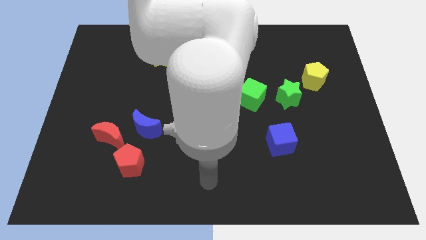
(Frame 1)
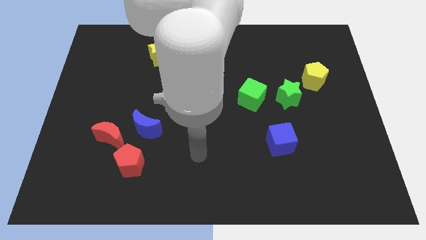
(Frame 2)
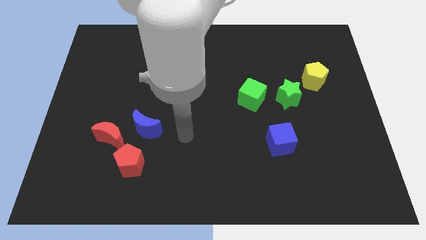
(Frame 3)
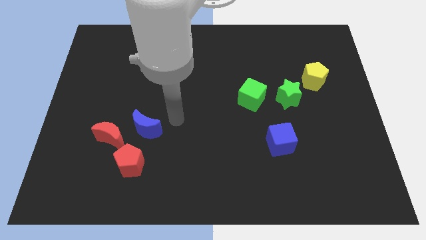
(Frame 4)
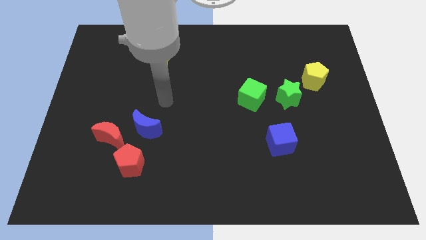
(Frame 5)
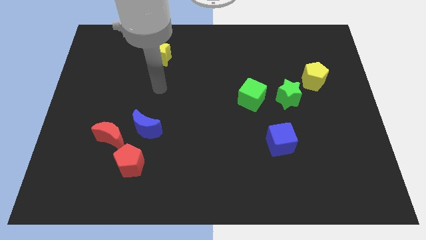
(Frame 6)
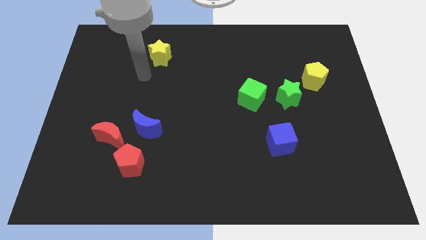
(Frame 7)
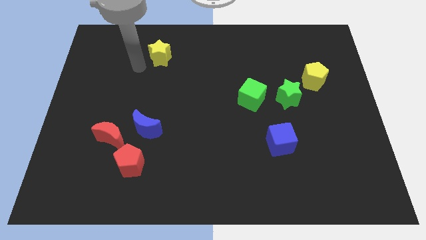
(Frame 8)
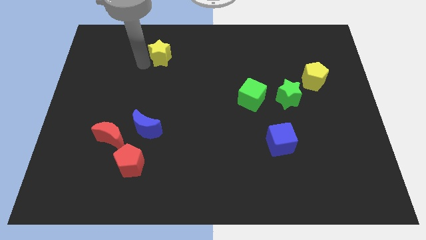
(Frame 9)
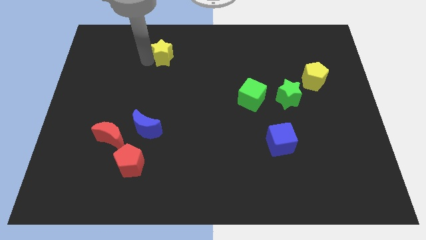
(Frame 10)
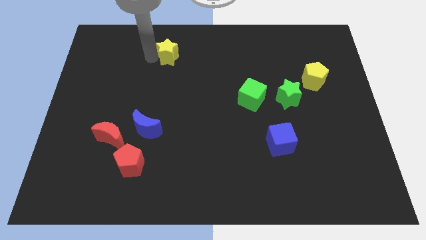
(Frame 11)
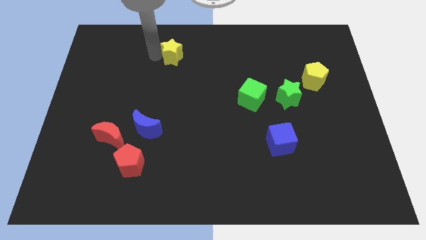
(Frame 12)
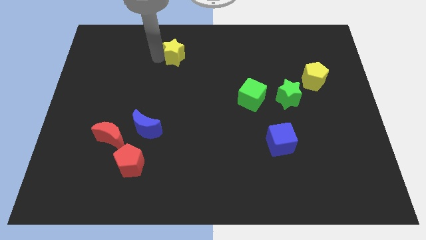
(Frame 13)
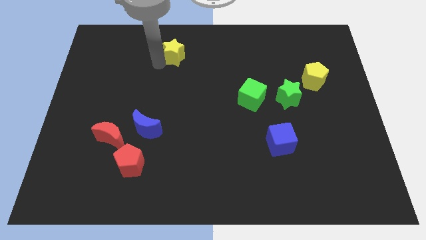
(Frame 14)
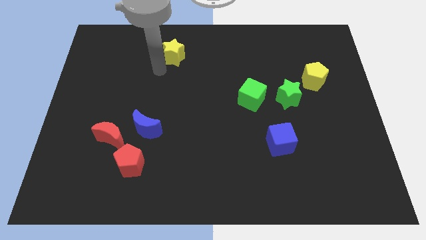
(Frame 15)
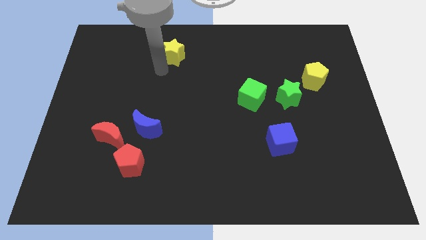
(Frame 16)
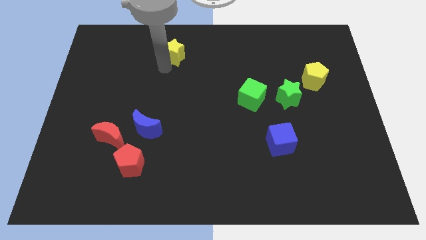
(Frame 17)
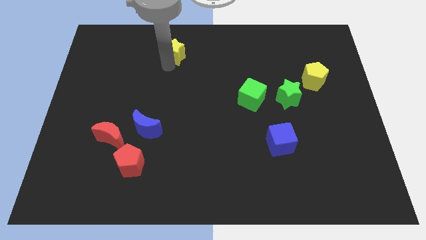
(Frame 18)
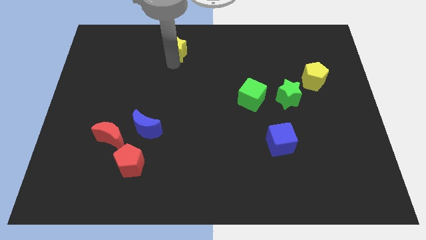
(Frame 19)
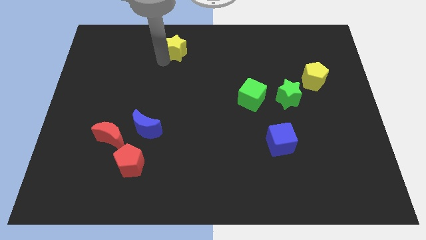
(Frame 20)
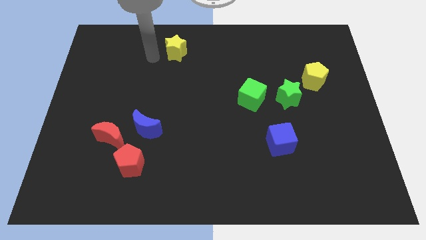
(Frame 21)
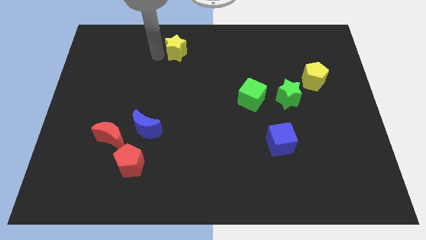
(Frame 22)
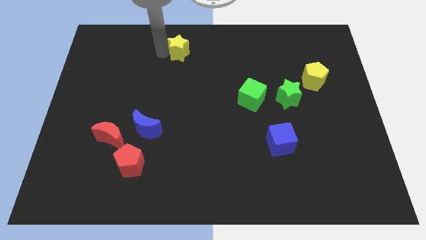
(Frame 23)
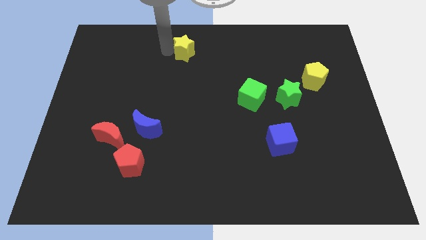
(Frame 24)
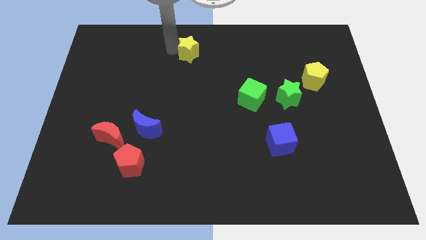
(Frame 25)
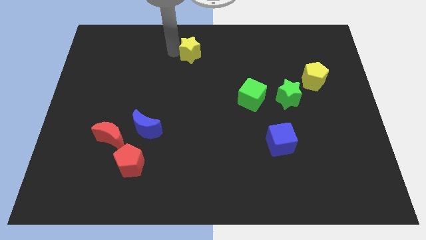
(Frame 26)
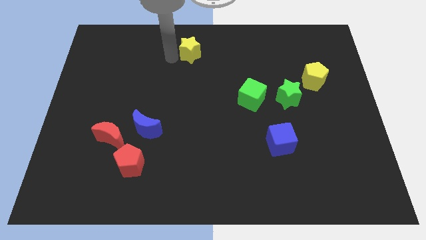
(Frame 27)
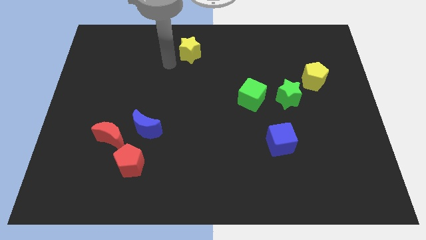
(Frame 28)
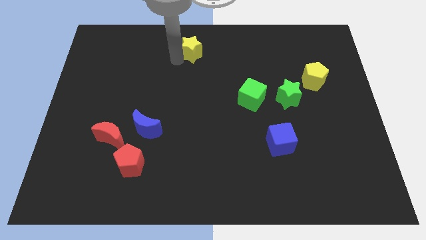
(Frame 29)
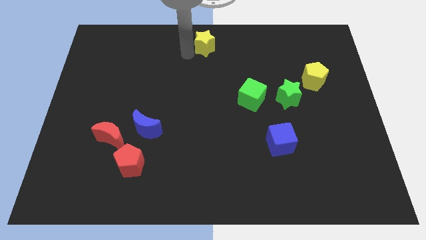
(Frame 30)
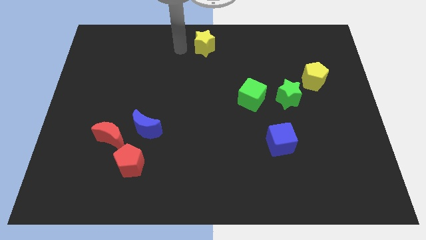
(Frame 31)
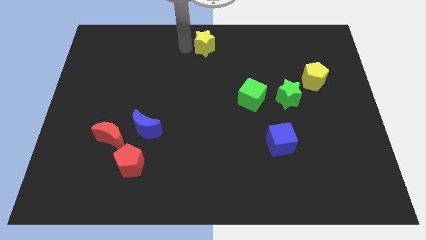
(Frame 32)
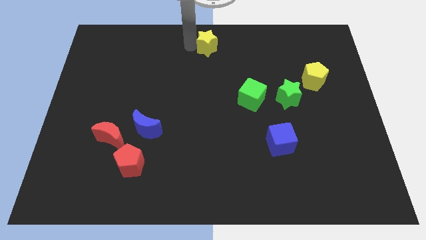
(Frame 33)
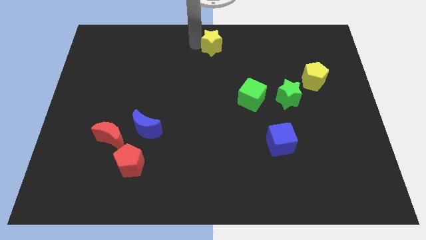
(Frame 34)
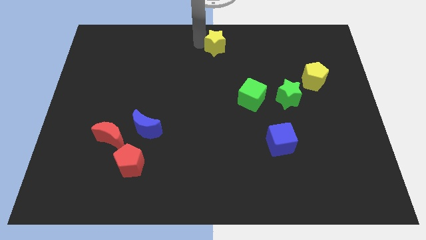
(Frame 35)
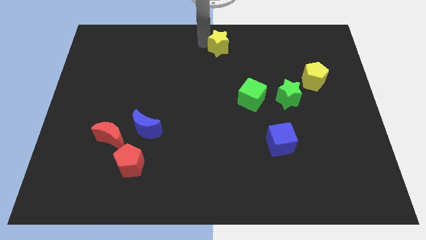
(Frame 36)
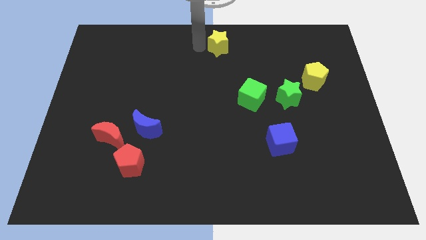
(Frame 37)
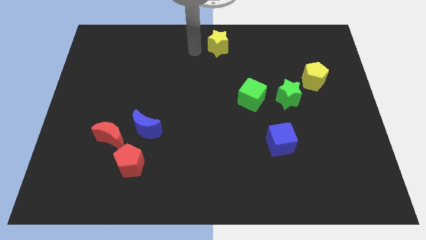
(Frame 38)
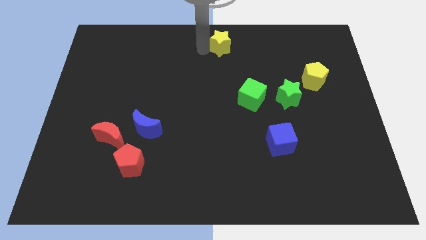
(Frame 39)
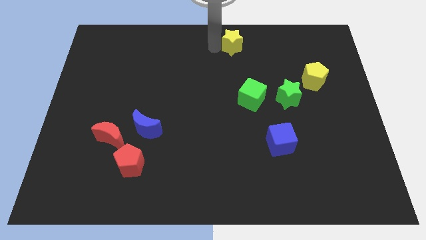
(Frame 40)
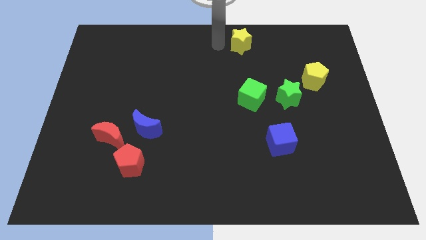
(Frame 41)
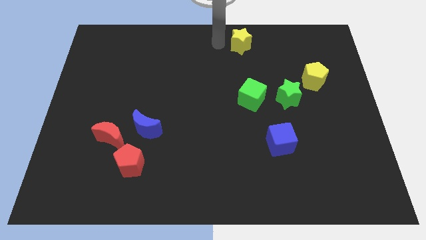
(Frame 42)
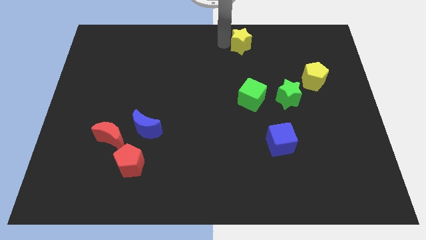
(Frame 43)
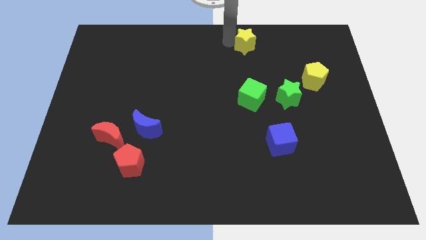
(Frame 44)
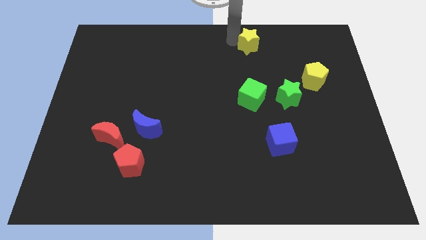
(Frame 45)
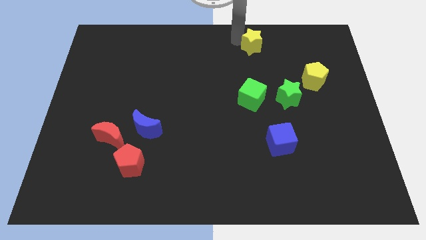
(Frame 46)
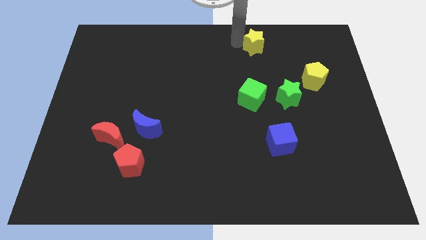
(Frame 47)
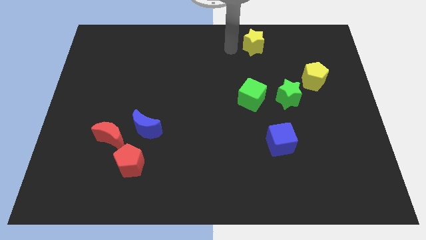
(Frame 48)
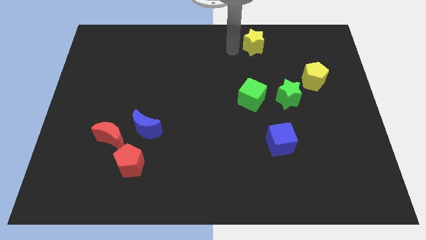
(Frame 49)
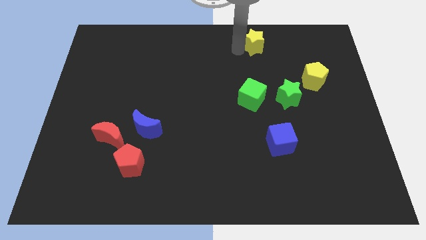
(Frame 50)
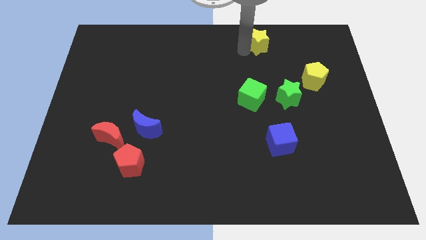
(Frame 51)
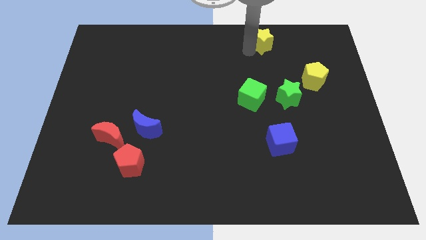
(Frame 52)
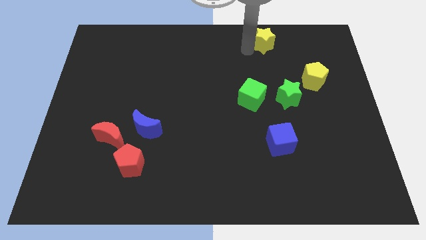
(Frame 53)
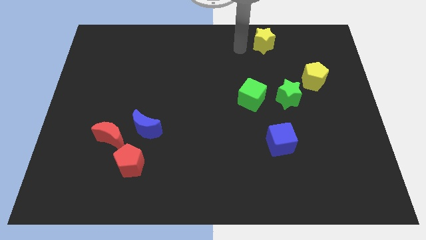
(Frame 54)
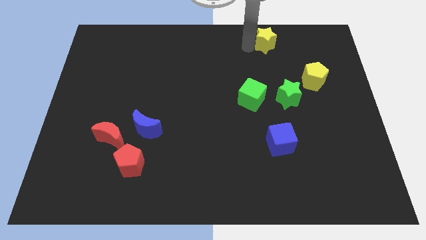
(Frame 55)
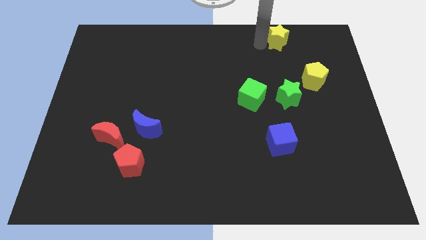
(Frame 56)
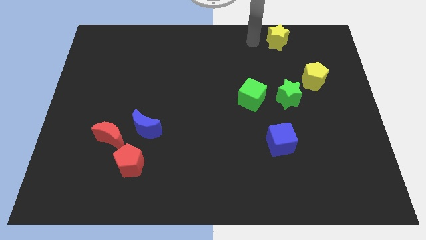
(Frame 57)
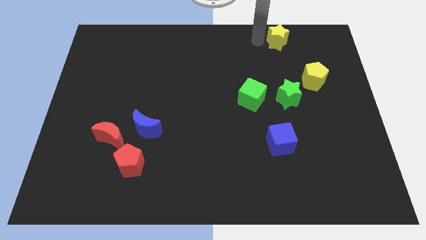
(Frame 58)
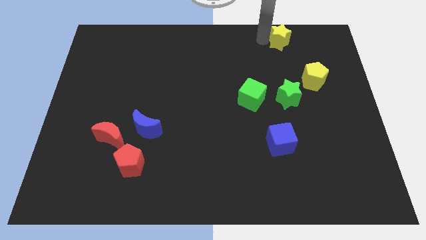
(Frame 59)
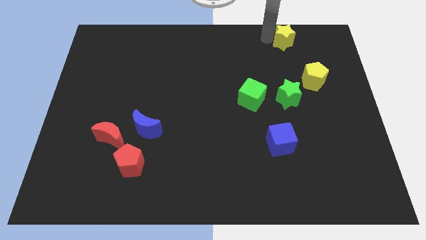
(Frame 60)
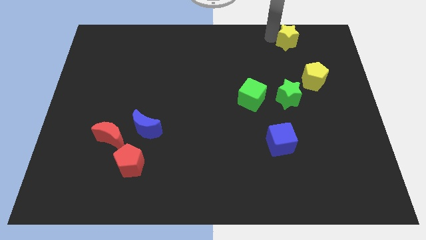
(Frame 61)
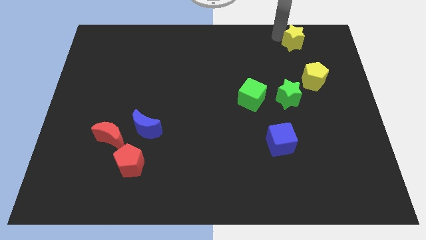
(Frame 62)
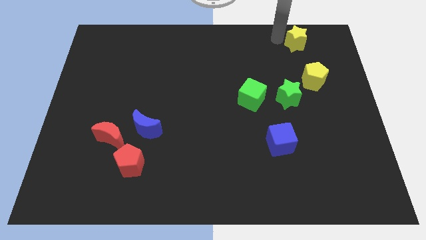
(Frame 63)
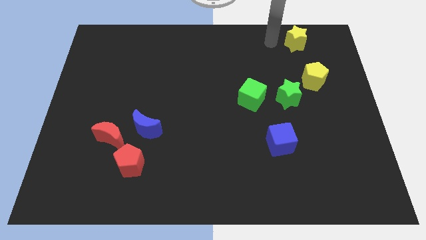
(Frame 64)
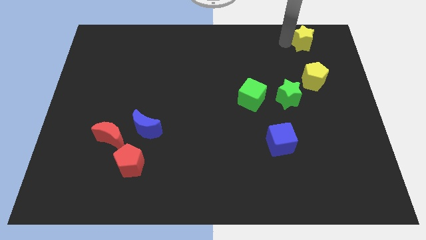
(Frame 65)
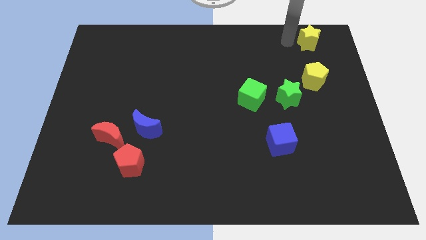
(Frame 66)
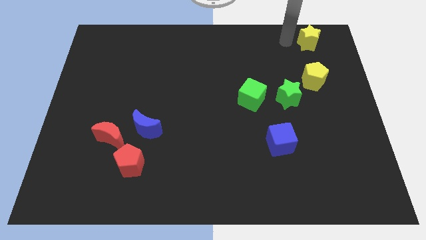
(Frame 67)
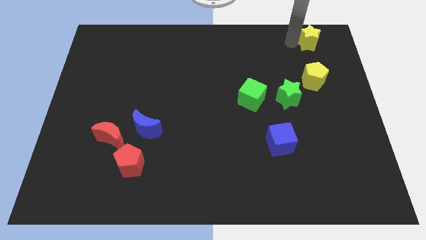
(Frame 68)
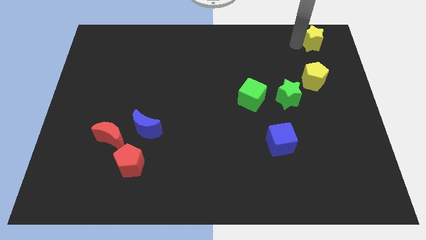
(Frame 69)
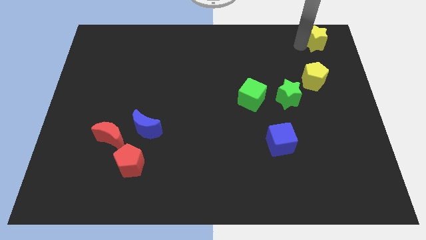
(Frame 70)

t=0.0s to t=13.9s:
slide the yellow star to the top right of the board
